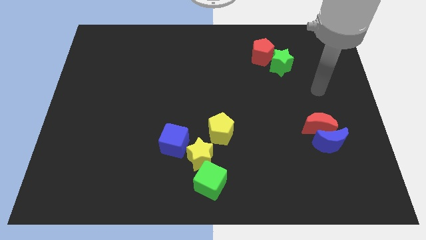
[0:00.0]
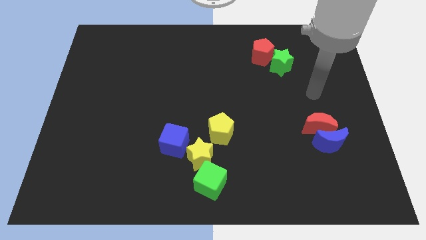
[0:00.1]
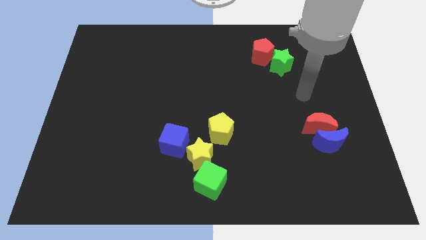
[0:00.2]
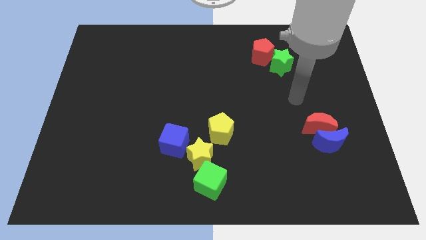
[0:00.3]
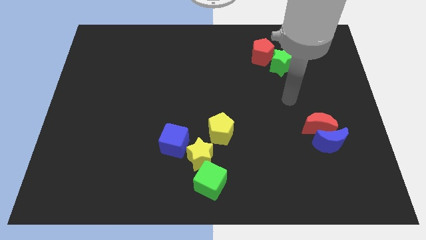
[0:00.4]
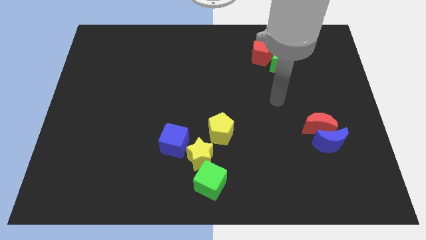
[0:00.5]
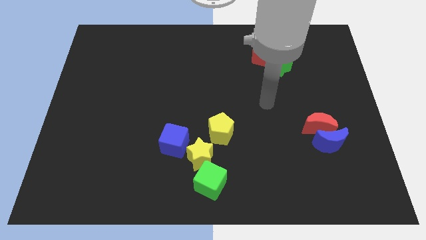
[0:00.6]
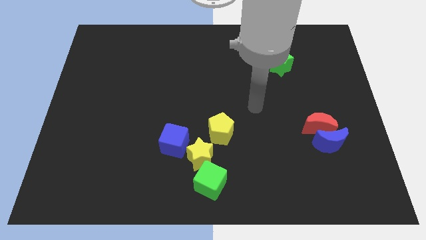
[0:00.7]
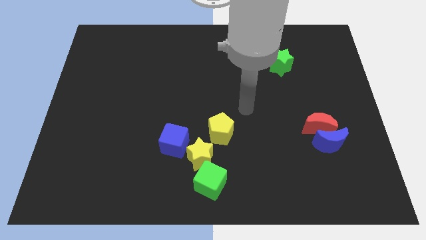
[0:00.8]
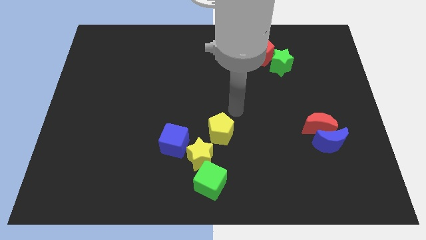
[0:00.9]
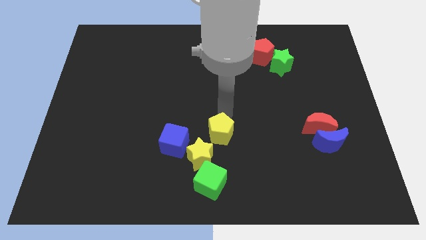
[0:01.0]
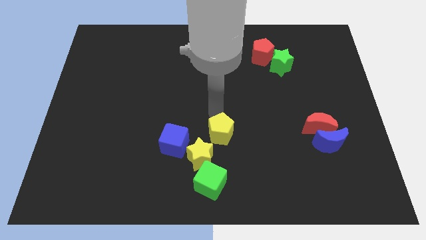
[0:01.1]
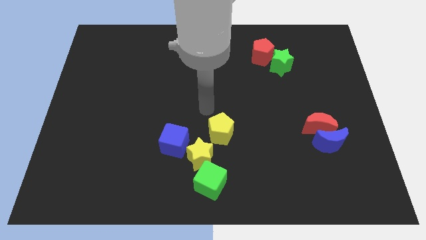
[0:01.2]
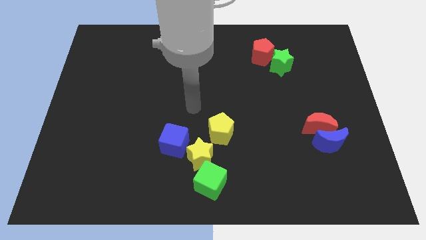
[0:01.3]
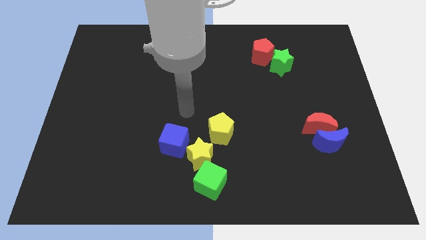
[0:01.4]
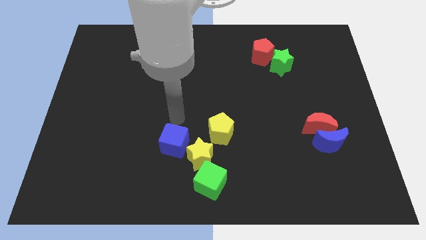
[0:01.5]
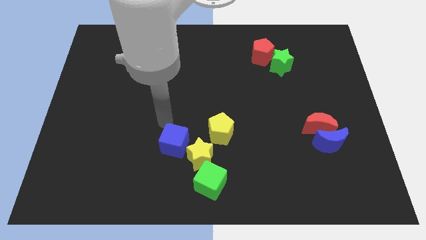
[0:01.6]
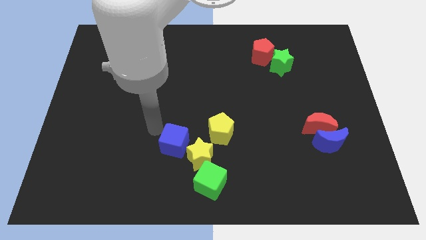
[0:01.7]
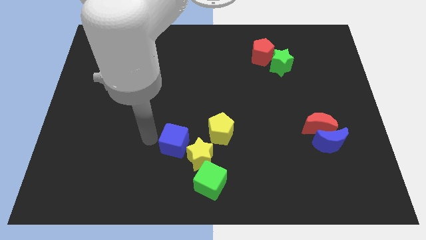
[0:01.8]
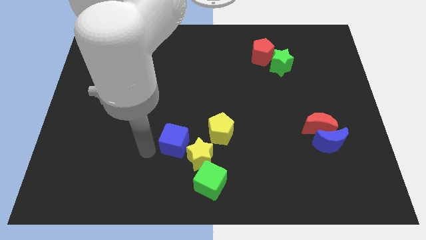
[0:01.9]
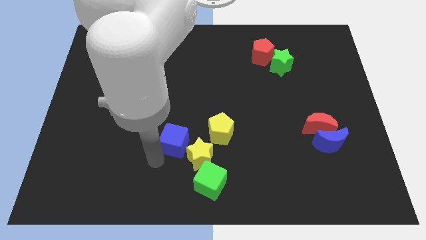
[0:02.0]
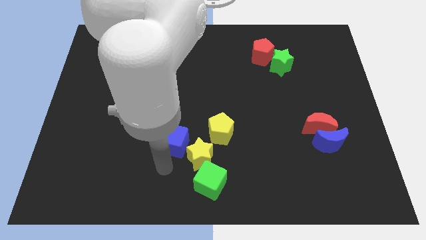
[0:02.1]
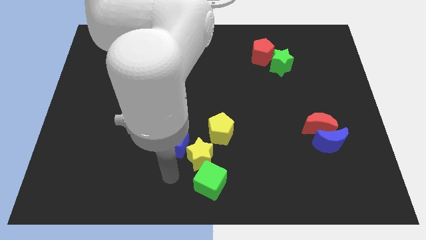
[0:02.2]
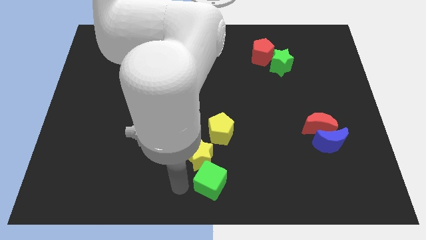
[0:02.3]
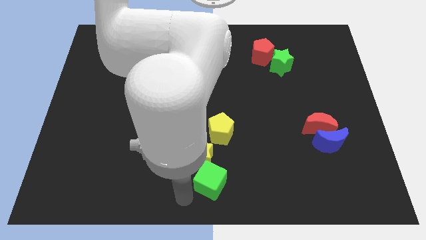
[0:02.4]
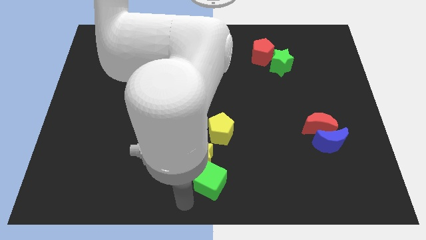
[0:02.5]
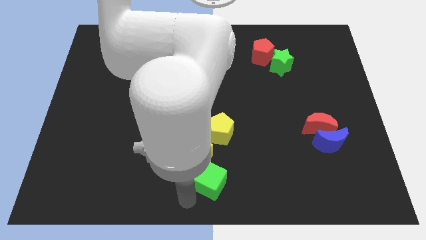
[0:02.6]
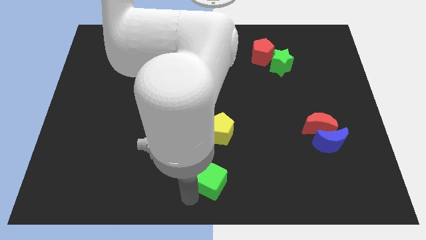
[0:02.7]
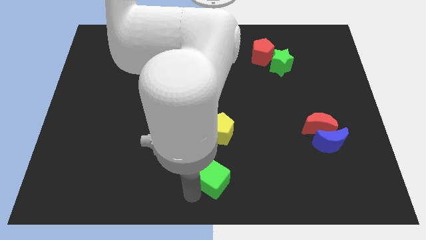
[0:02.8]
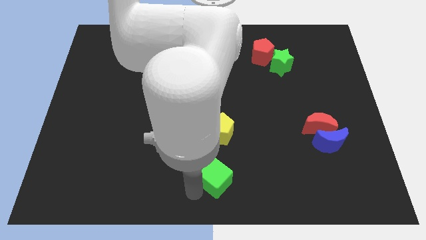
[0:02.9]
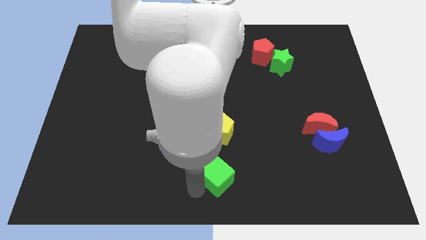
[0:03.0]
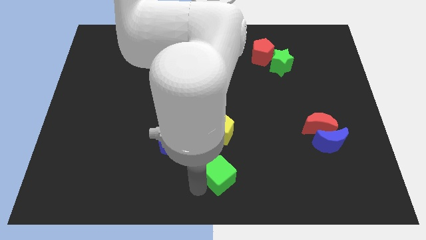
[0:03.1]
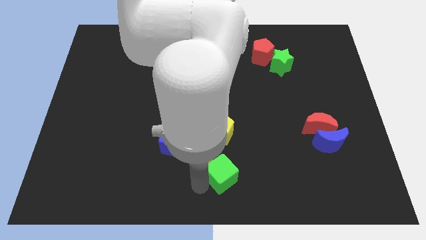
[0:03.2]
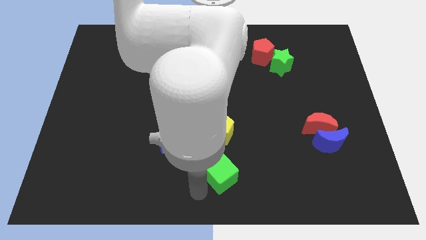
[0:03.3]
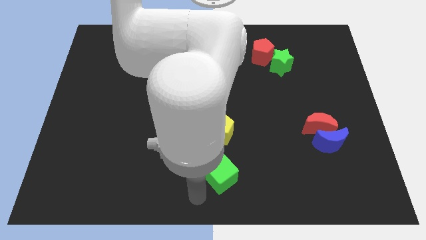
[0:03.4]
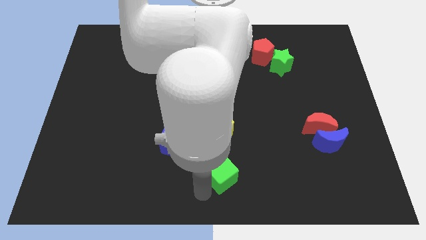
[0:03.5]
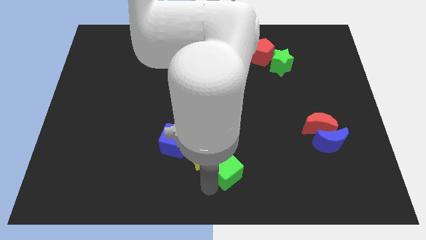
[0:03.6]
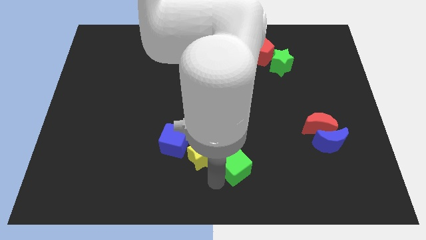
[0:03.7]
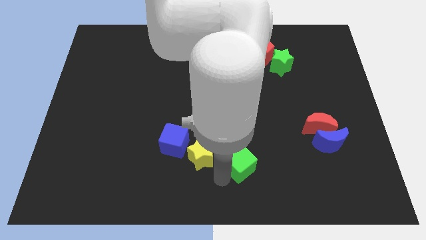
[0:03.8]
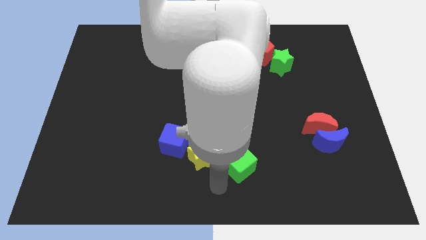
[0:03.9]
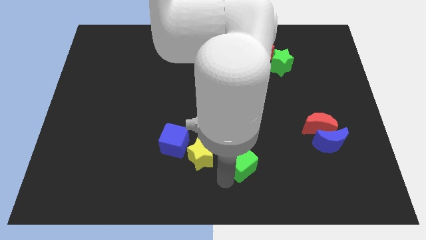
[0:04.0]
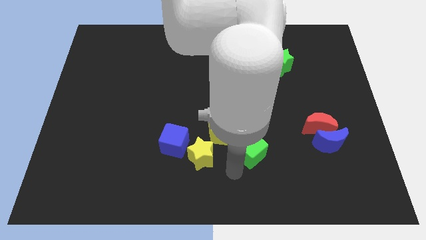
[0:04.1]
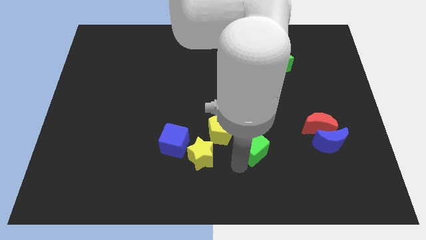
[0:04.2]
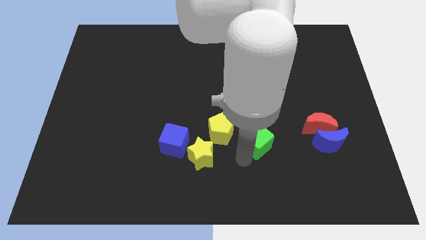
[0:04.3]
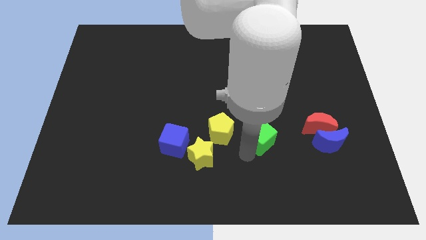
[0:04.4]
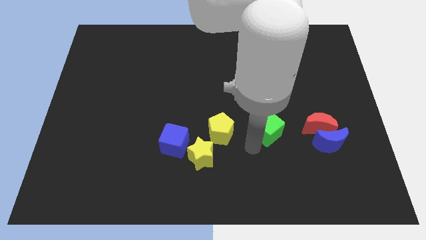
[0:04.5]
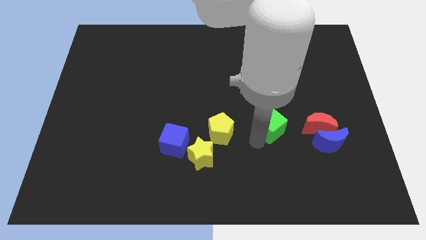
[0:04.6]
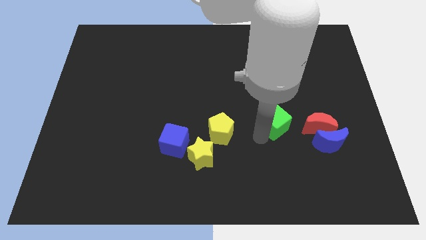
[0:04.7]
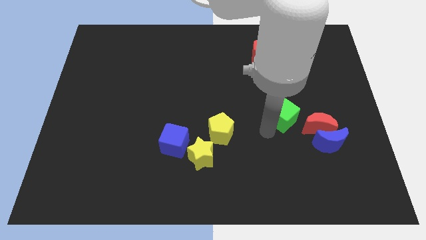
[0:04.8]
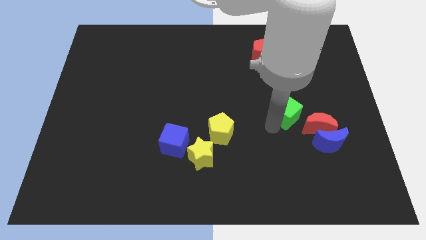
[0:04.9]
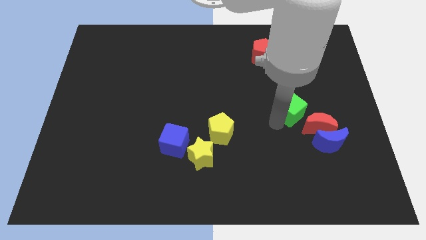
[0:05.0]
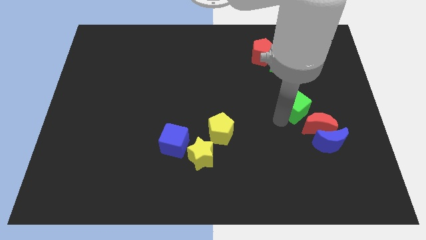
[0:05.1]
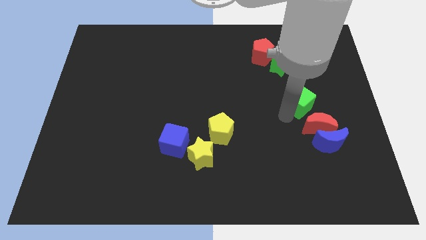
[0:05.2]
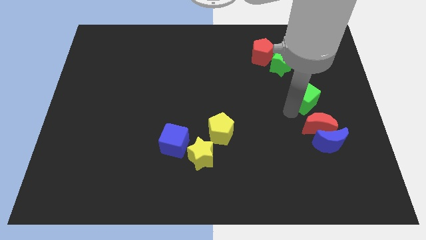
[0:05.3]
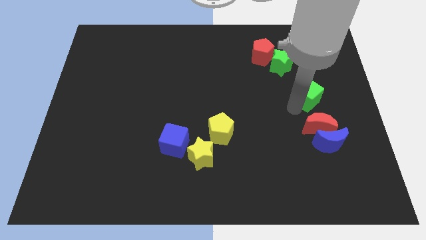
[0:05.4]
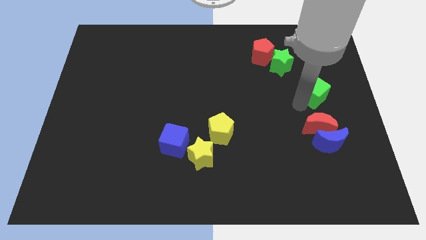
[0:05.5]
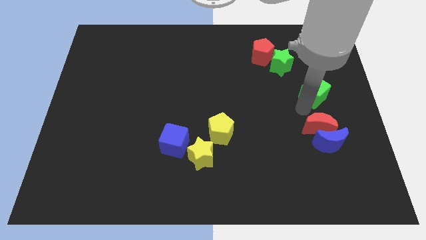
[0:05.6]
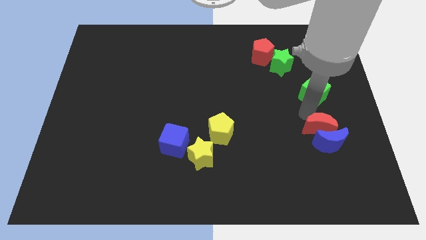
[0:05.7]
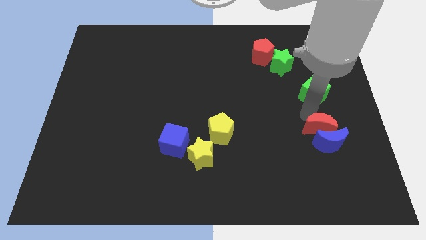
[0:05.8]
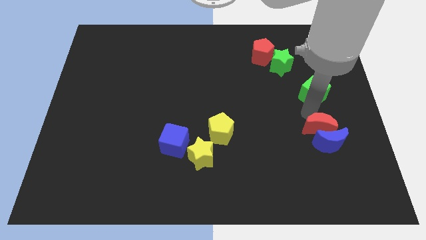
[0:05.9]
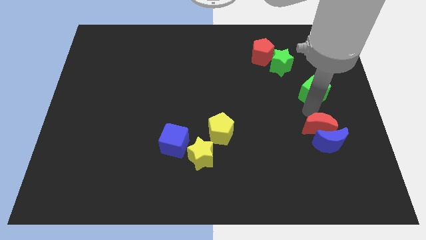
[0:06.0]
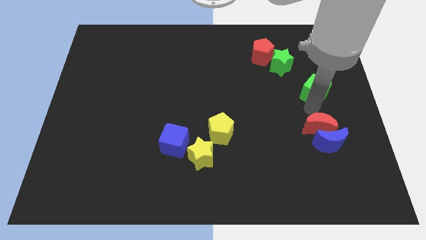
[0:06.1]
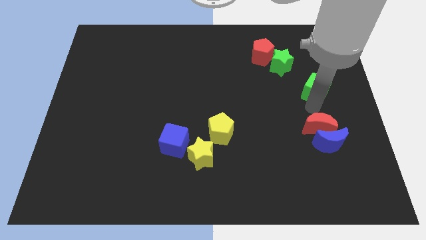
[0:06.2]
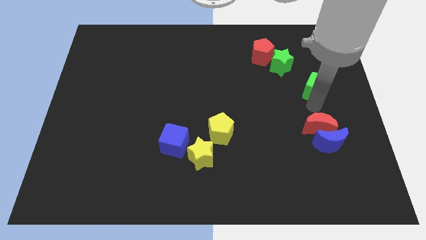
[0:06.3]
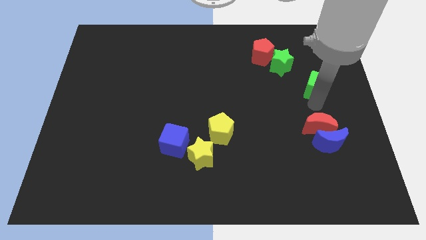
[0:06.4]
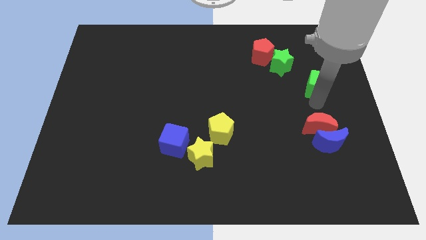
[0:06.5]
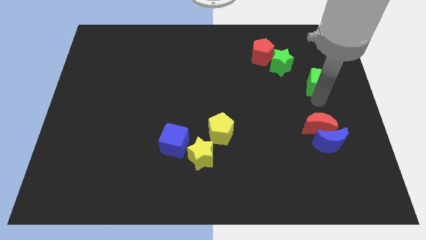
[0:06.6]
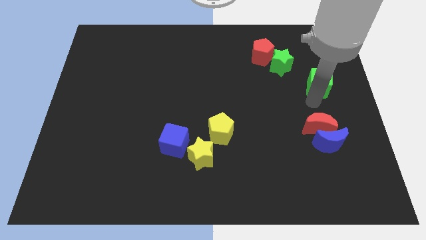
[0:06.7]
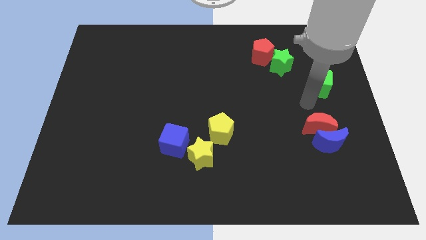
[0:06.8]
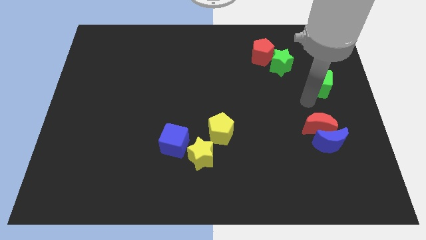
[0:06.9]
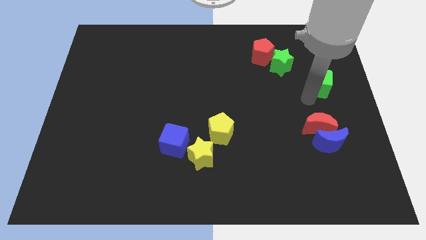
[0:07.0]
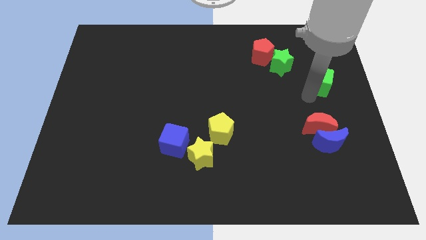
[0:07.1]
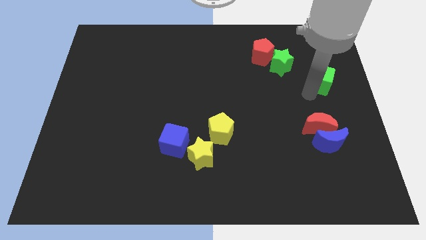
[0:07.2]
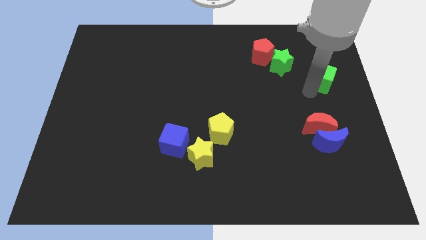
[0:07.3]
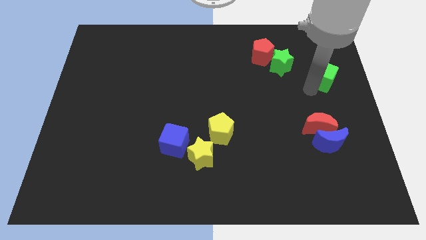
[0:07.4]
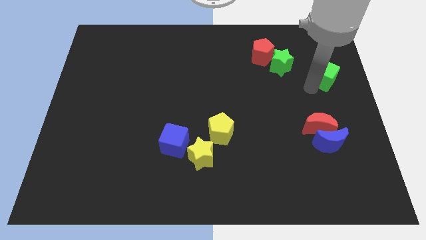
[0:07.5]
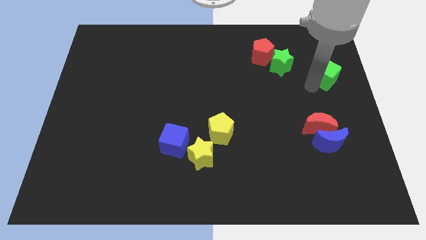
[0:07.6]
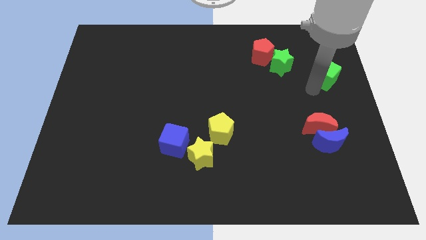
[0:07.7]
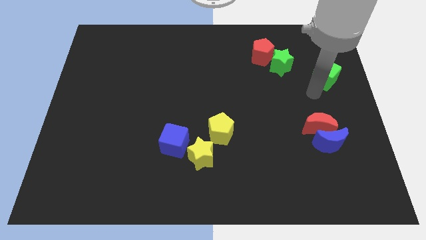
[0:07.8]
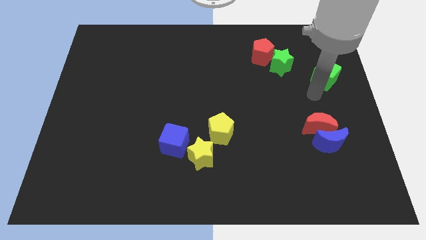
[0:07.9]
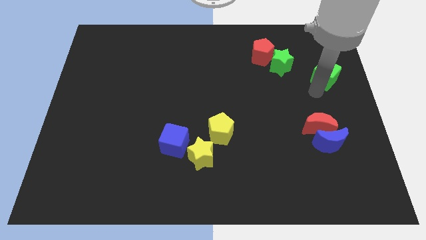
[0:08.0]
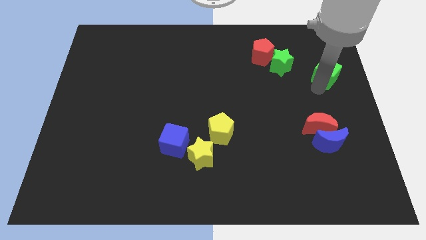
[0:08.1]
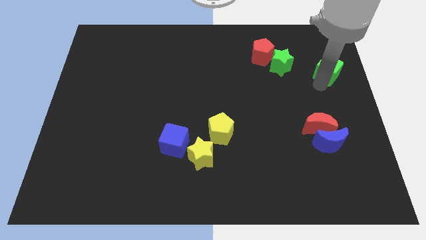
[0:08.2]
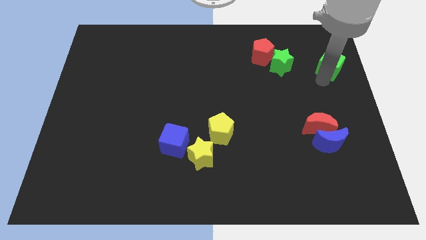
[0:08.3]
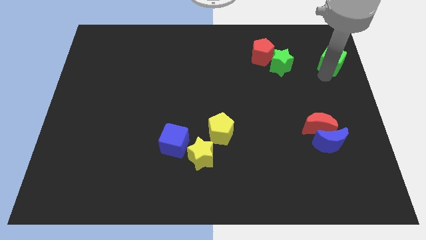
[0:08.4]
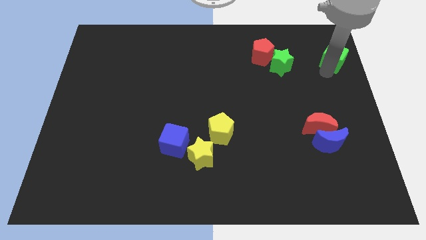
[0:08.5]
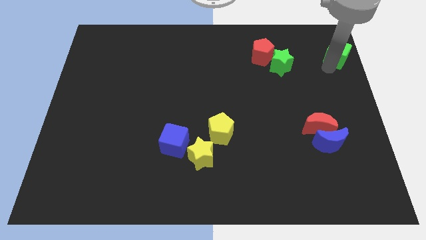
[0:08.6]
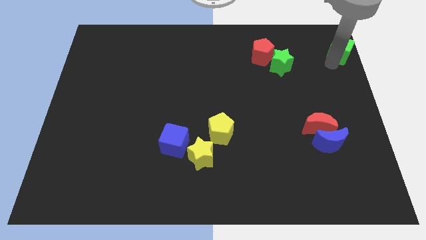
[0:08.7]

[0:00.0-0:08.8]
slide the green cube to the upper right corner
